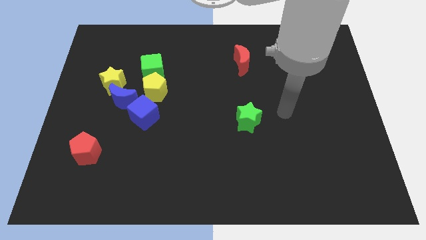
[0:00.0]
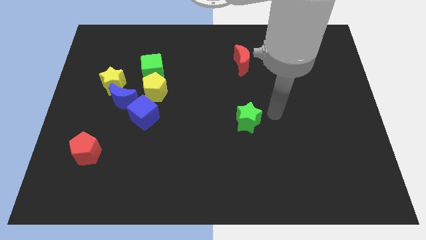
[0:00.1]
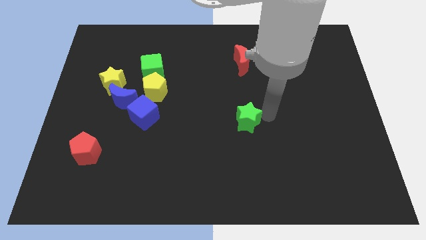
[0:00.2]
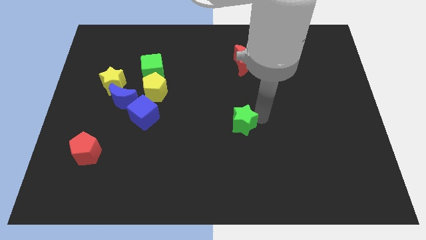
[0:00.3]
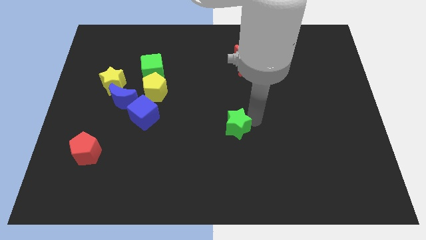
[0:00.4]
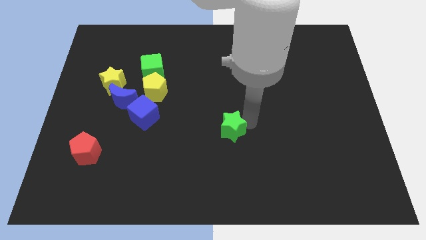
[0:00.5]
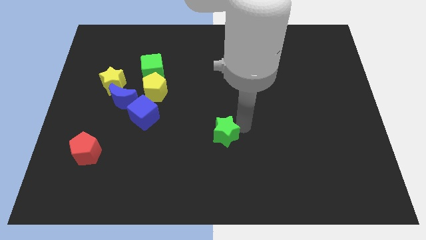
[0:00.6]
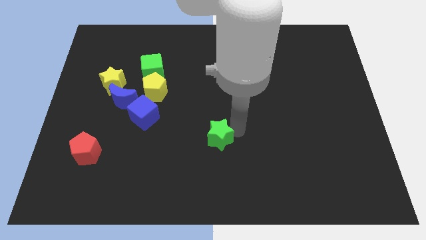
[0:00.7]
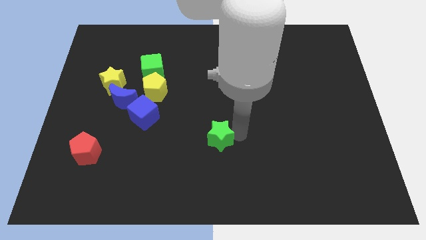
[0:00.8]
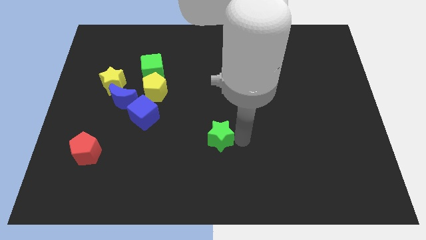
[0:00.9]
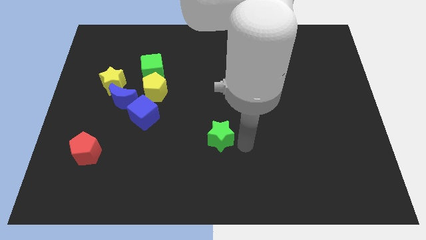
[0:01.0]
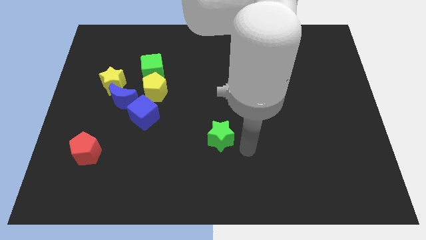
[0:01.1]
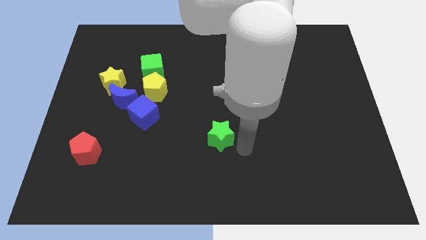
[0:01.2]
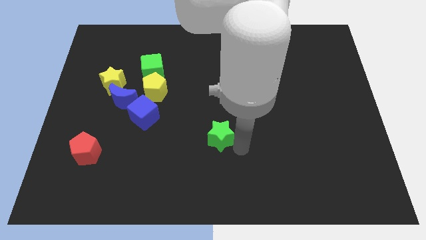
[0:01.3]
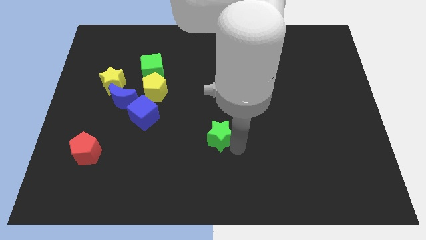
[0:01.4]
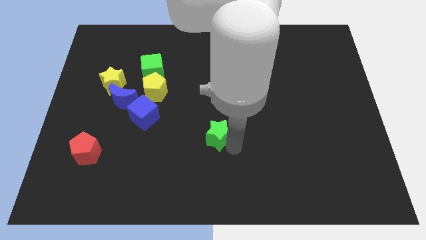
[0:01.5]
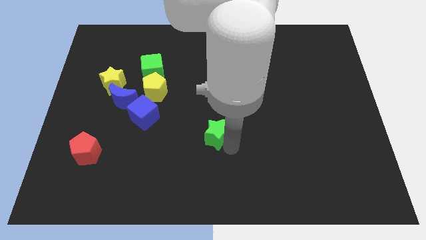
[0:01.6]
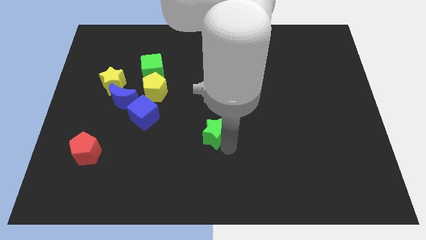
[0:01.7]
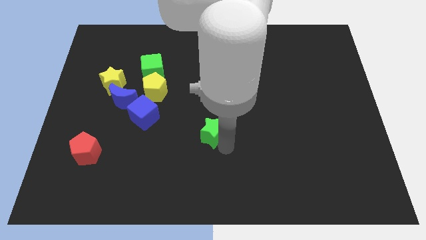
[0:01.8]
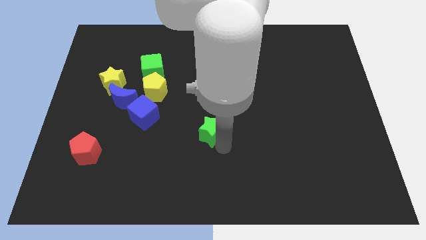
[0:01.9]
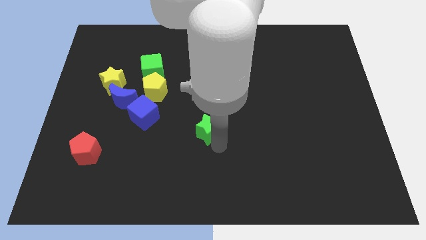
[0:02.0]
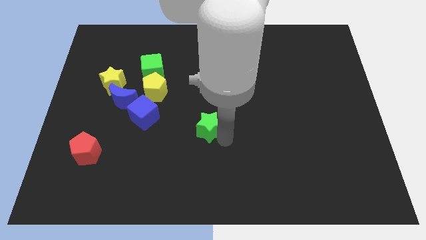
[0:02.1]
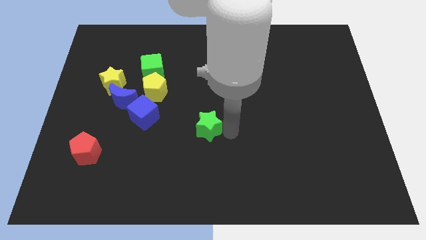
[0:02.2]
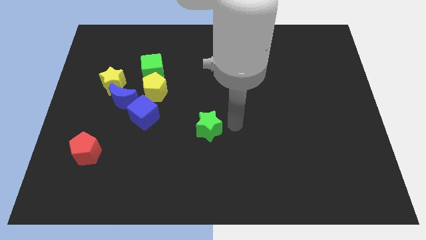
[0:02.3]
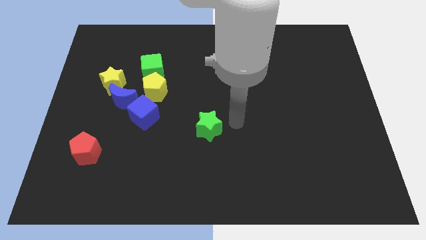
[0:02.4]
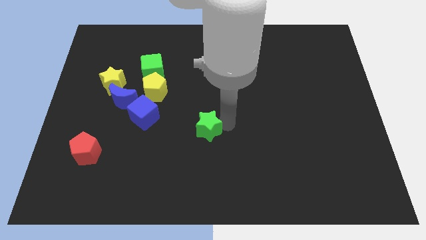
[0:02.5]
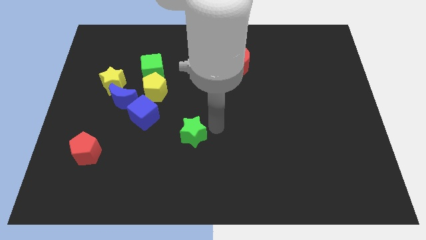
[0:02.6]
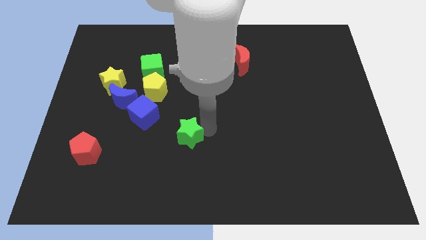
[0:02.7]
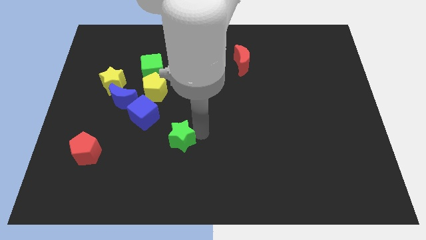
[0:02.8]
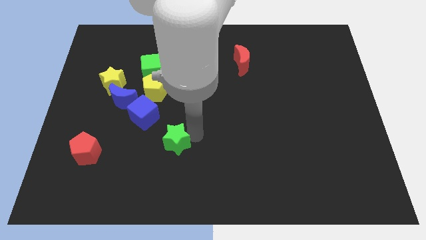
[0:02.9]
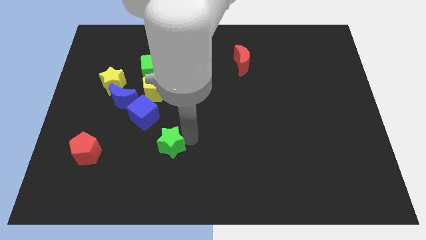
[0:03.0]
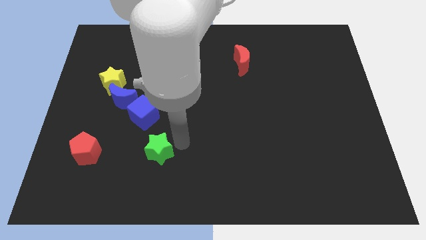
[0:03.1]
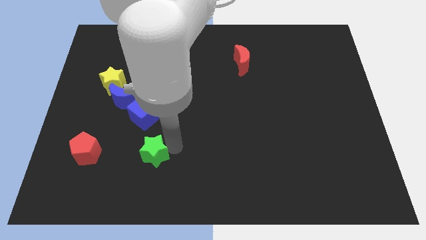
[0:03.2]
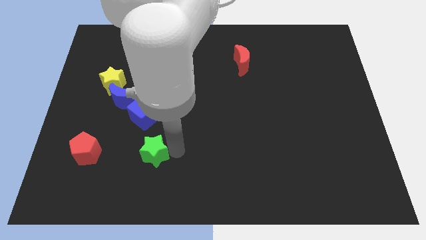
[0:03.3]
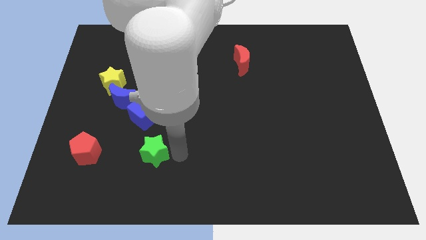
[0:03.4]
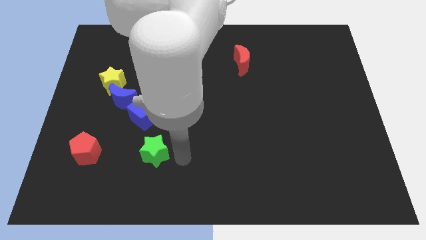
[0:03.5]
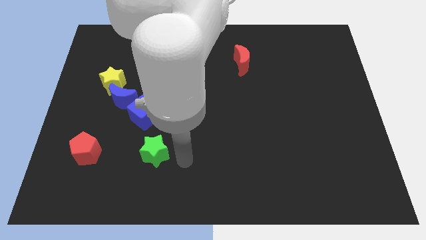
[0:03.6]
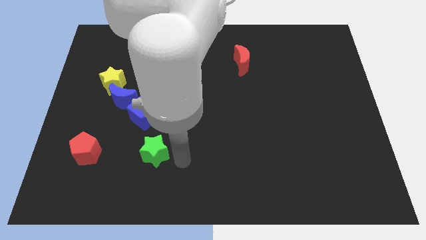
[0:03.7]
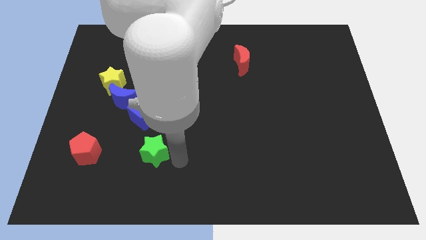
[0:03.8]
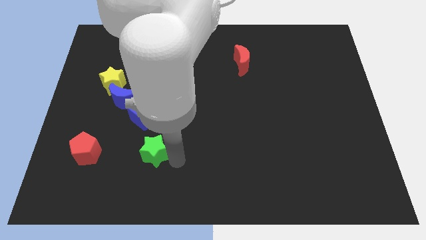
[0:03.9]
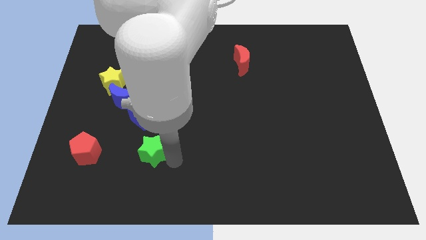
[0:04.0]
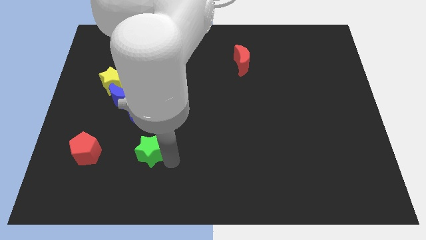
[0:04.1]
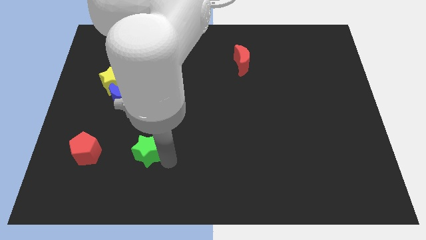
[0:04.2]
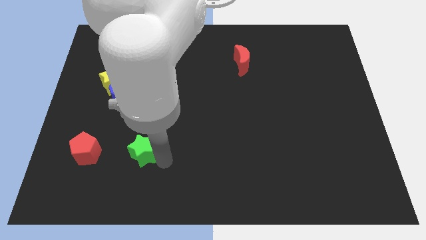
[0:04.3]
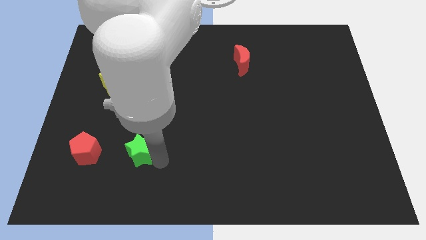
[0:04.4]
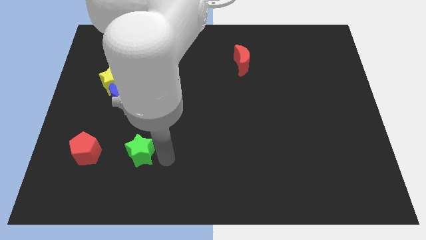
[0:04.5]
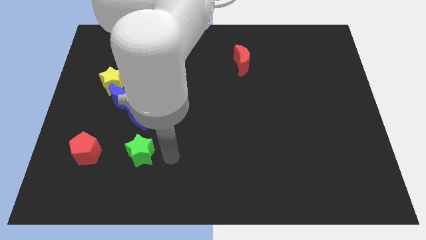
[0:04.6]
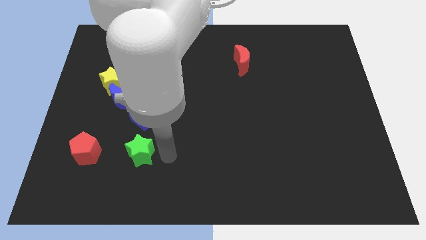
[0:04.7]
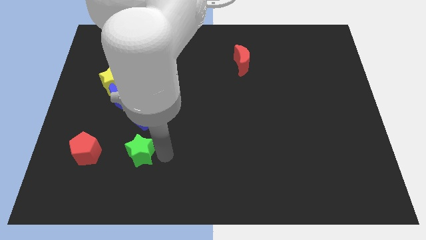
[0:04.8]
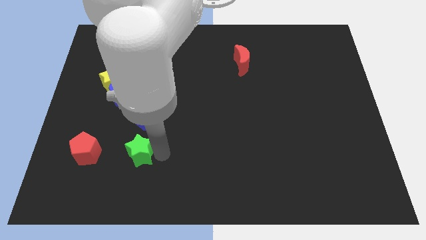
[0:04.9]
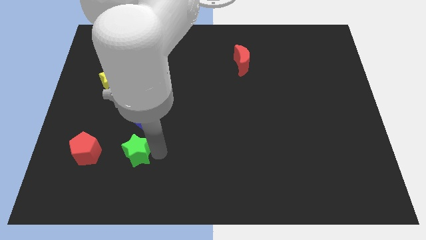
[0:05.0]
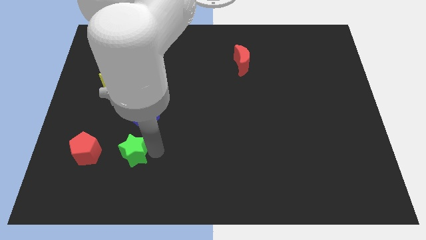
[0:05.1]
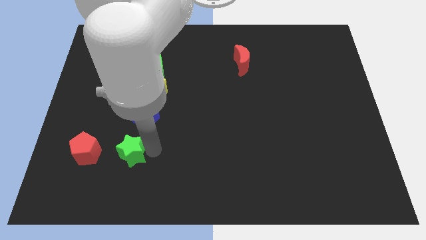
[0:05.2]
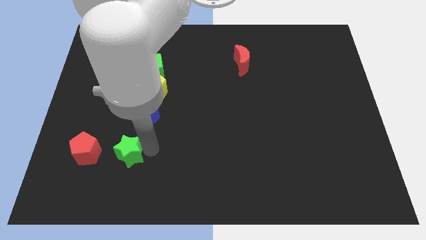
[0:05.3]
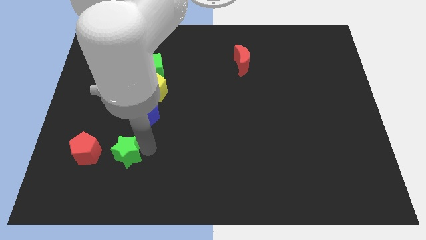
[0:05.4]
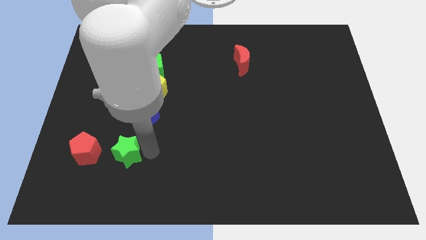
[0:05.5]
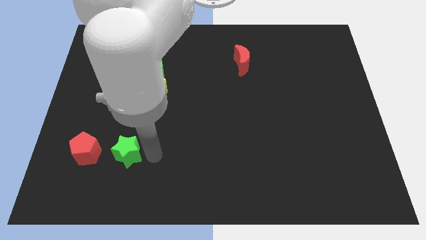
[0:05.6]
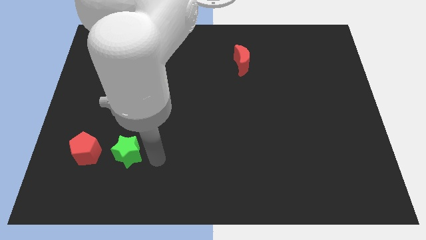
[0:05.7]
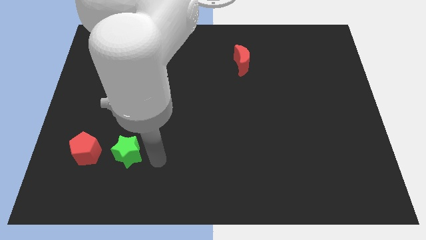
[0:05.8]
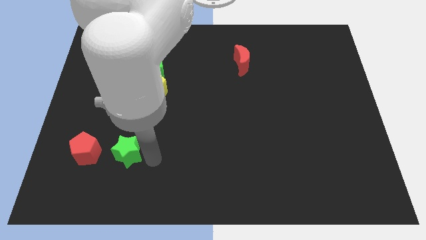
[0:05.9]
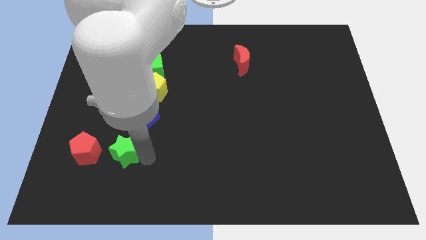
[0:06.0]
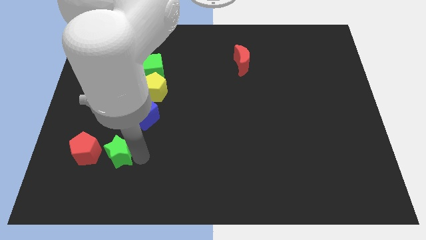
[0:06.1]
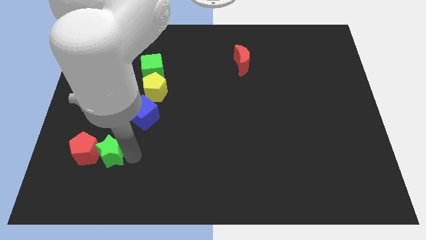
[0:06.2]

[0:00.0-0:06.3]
move the green star to the red pentagon

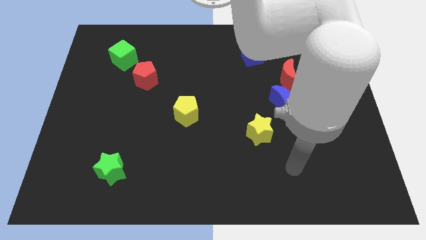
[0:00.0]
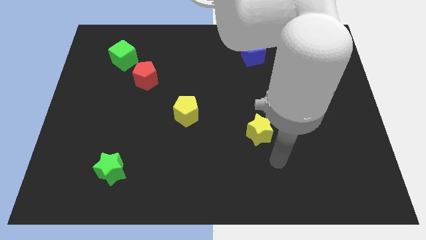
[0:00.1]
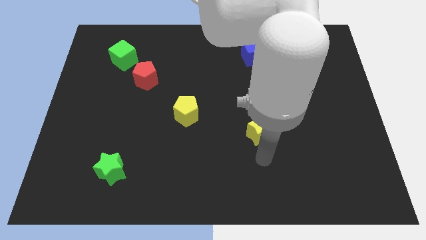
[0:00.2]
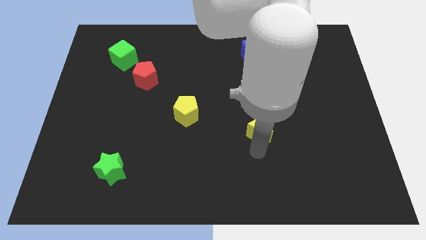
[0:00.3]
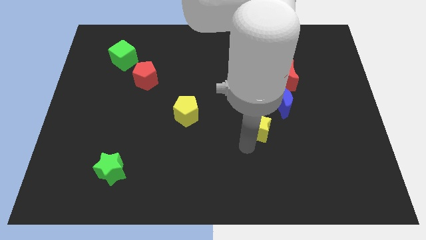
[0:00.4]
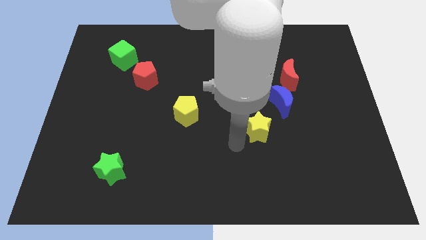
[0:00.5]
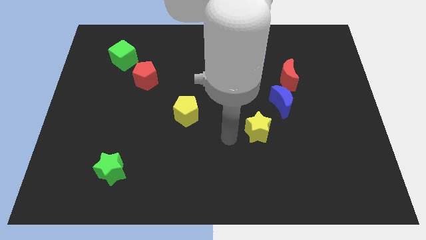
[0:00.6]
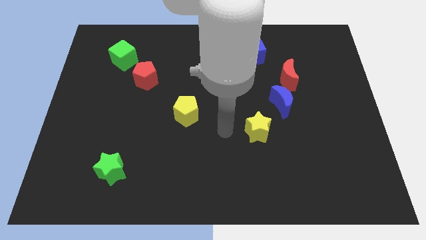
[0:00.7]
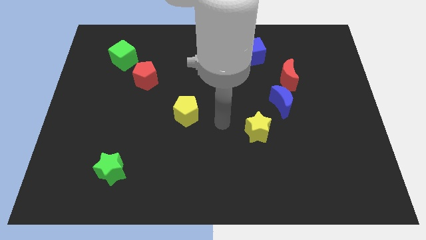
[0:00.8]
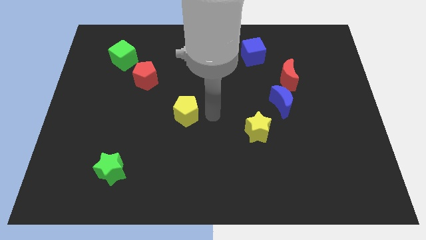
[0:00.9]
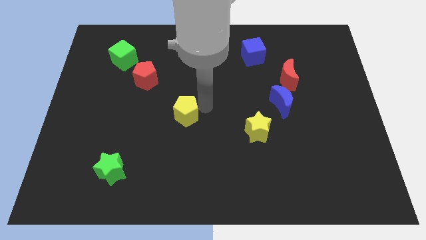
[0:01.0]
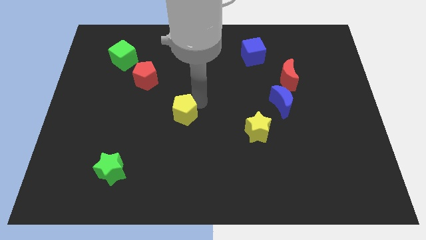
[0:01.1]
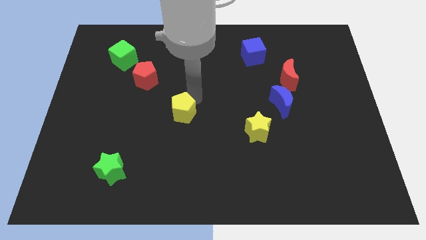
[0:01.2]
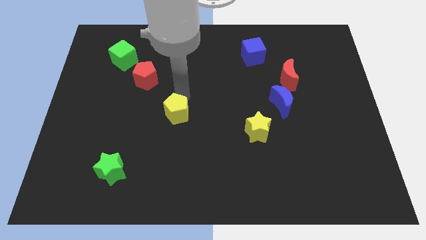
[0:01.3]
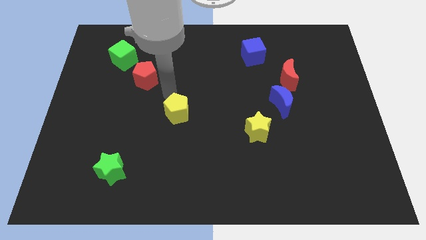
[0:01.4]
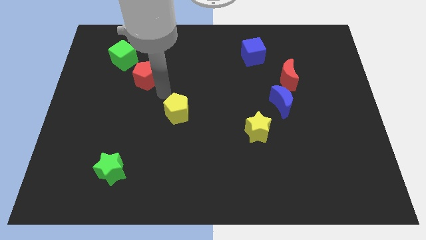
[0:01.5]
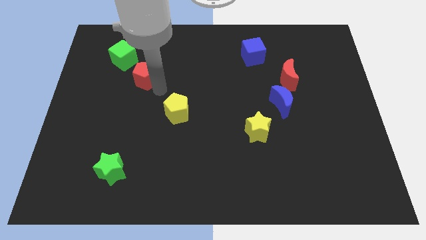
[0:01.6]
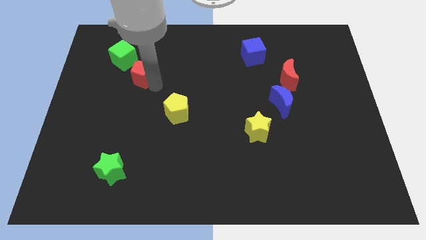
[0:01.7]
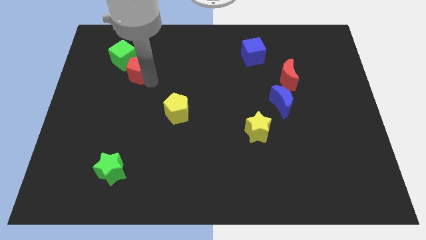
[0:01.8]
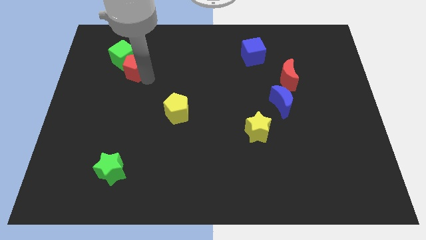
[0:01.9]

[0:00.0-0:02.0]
move the red pentagon next to the green cube
